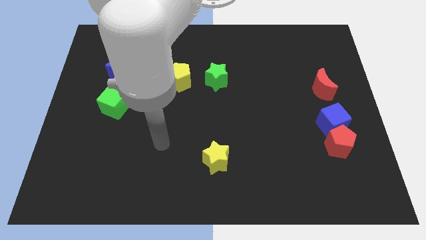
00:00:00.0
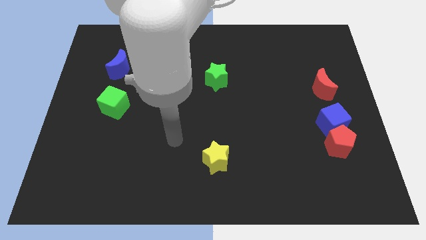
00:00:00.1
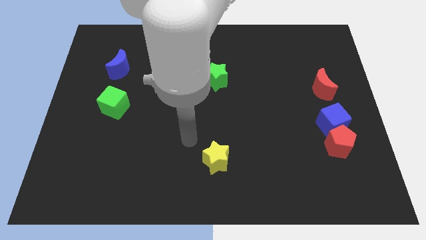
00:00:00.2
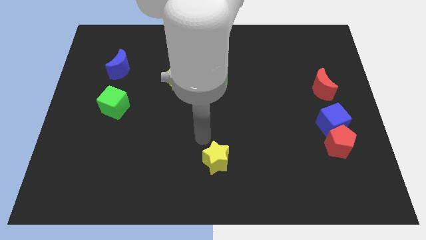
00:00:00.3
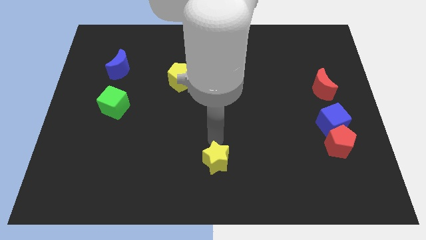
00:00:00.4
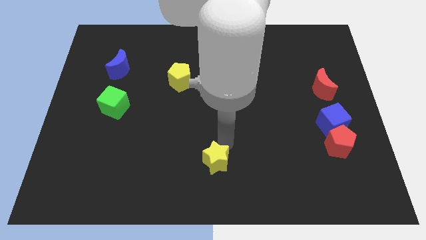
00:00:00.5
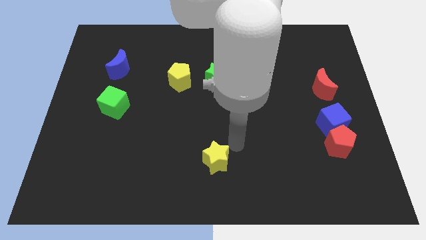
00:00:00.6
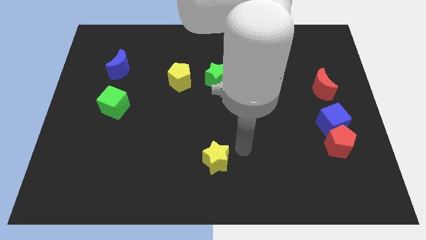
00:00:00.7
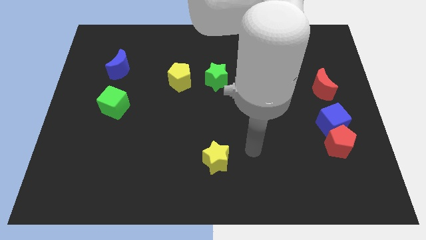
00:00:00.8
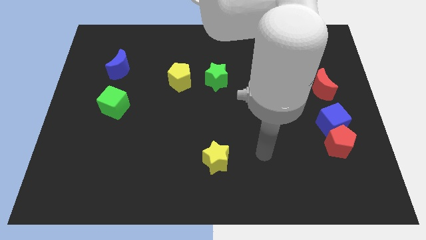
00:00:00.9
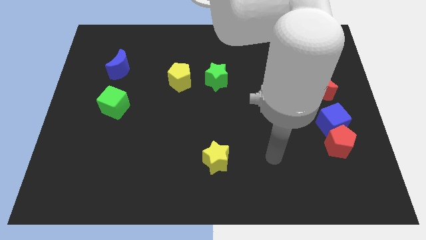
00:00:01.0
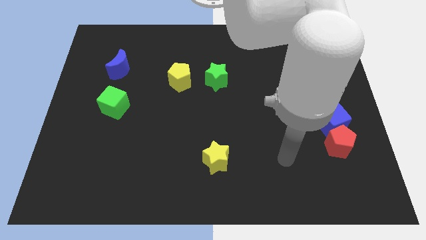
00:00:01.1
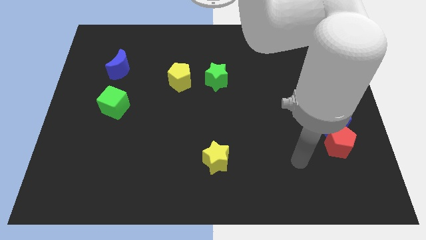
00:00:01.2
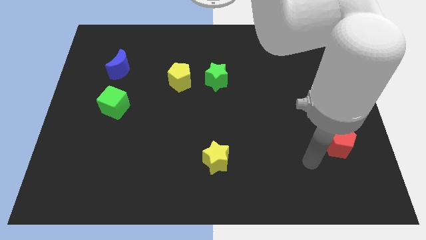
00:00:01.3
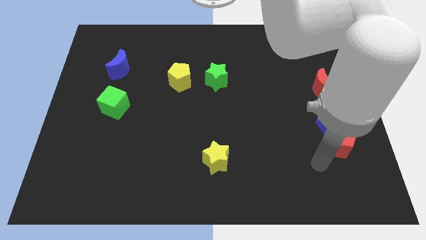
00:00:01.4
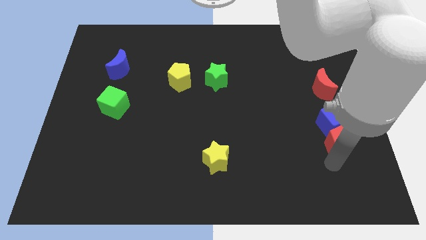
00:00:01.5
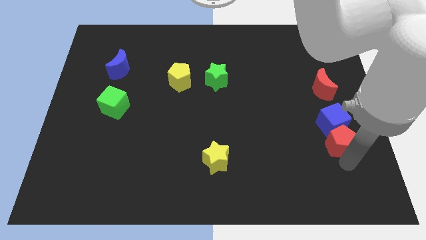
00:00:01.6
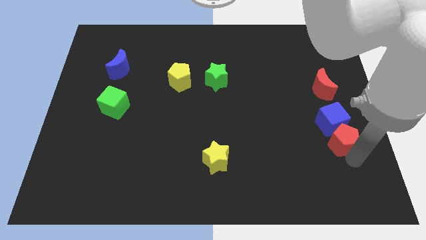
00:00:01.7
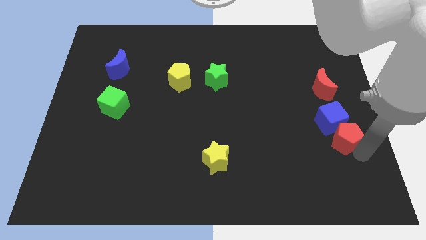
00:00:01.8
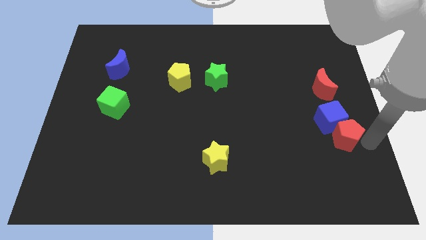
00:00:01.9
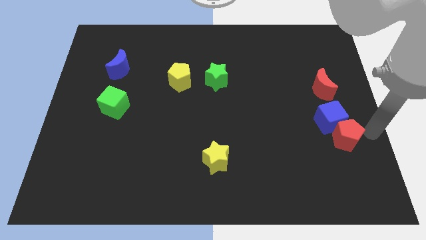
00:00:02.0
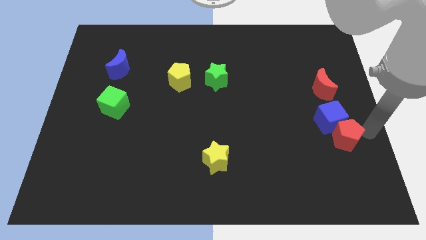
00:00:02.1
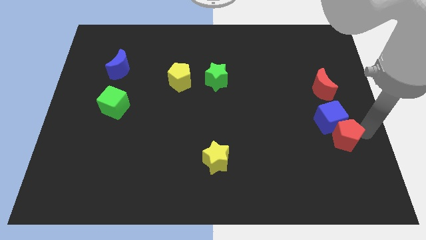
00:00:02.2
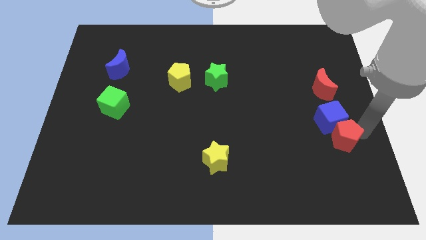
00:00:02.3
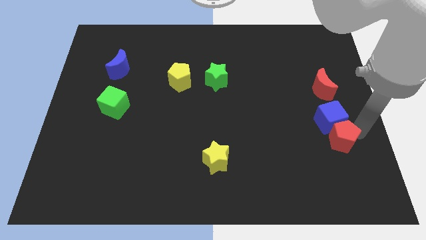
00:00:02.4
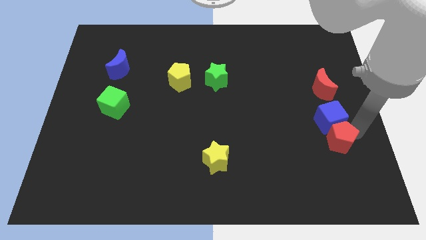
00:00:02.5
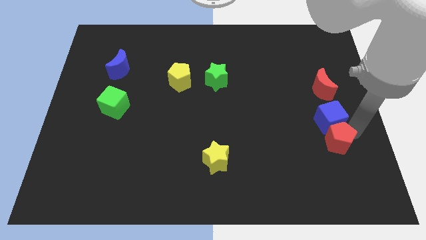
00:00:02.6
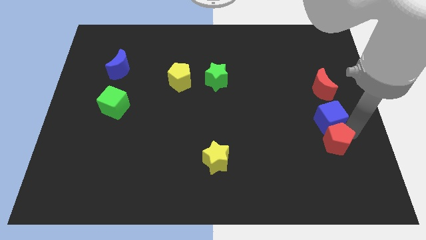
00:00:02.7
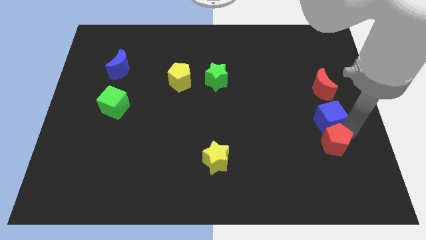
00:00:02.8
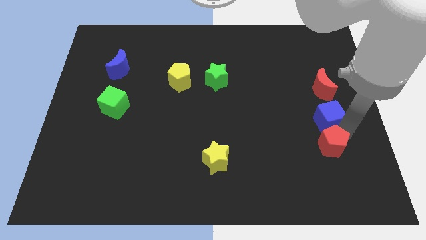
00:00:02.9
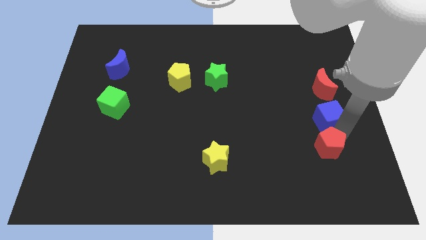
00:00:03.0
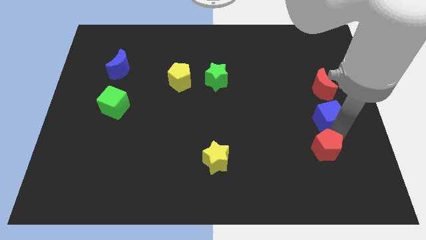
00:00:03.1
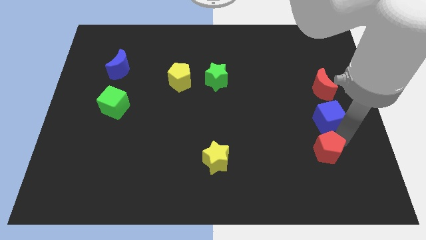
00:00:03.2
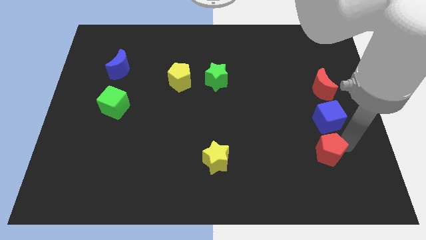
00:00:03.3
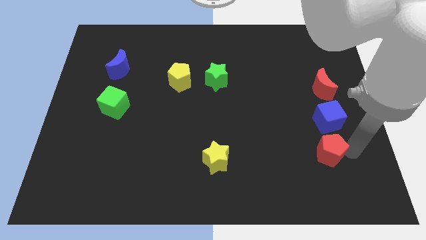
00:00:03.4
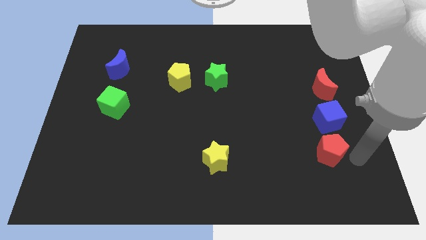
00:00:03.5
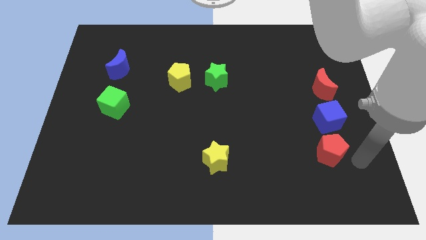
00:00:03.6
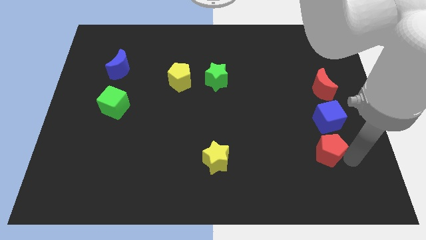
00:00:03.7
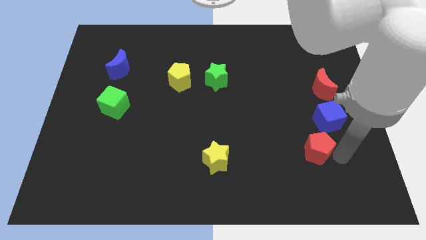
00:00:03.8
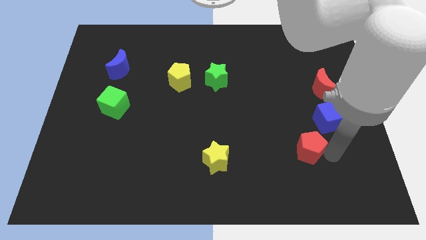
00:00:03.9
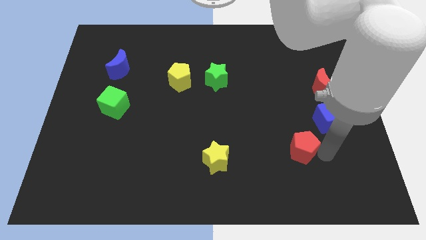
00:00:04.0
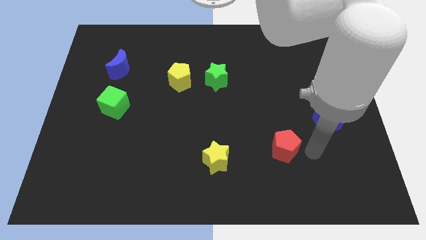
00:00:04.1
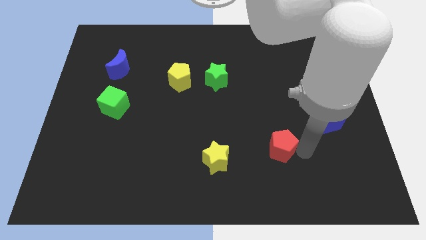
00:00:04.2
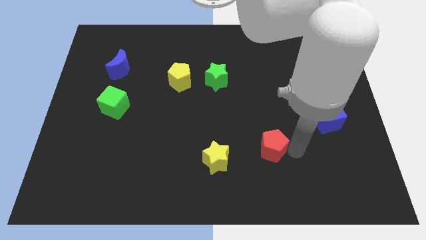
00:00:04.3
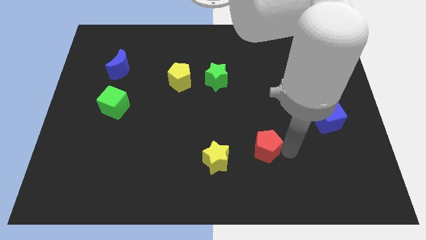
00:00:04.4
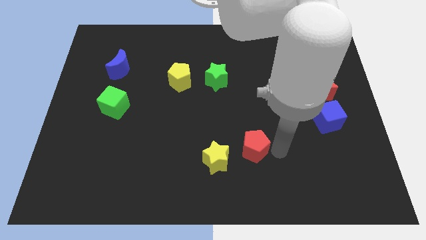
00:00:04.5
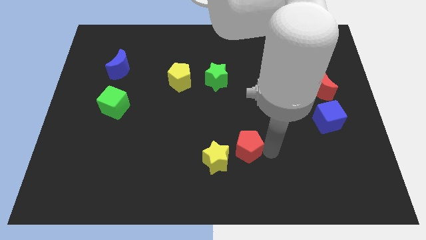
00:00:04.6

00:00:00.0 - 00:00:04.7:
move the red pentagon left

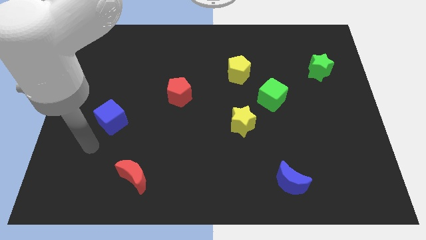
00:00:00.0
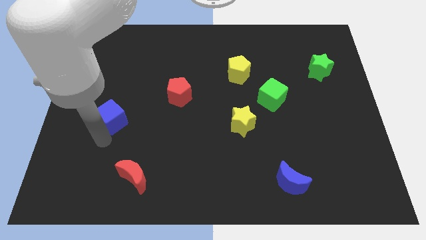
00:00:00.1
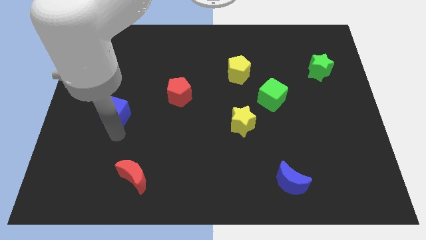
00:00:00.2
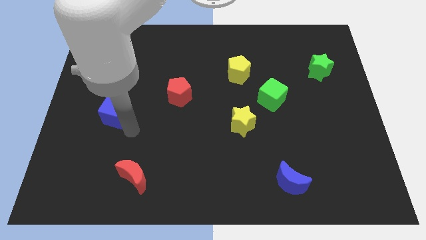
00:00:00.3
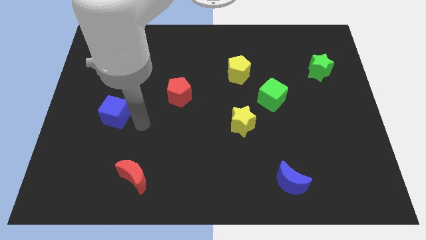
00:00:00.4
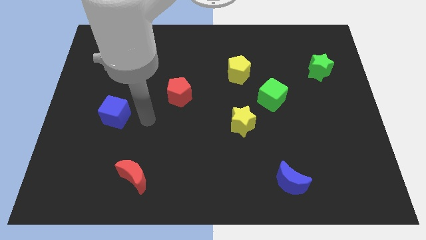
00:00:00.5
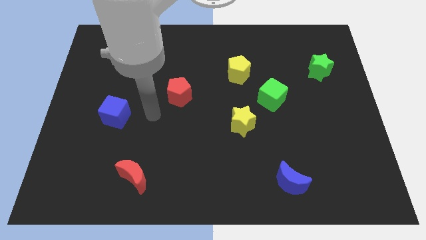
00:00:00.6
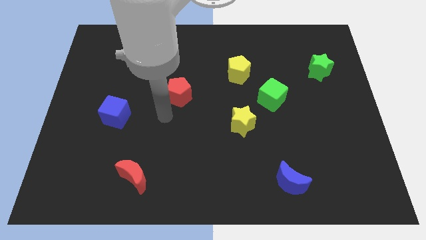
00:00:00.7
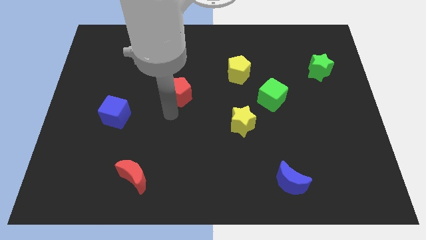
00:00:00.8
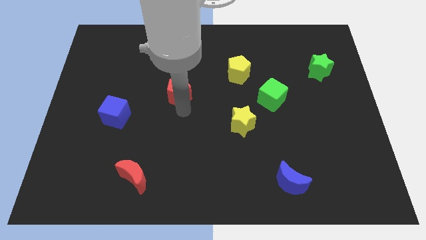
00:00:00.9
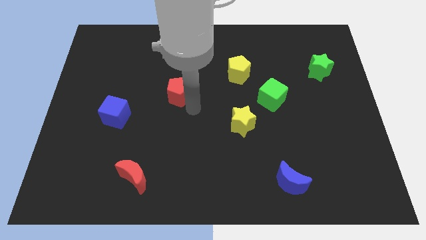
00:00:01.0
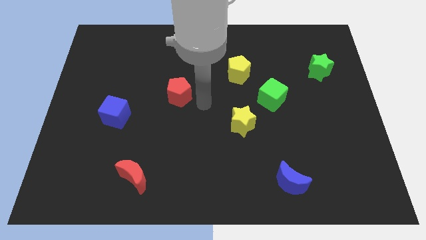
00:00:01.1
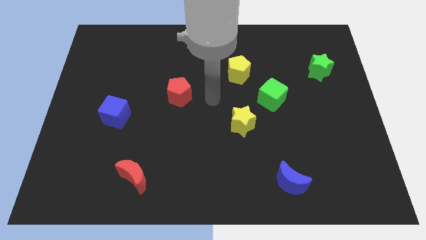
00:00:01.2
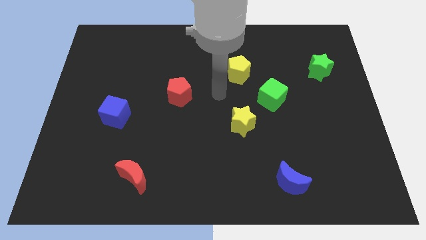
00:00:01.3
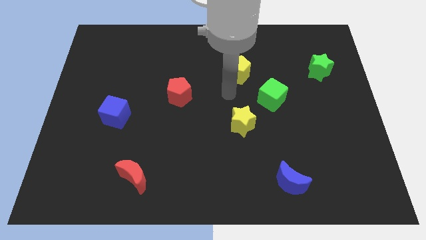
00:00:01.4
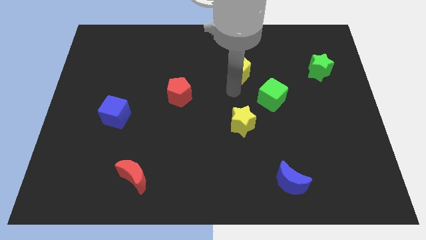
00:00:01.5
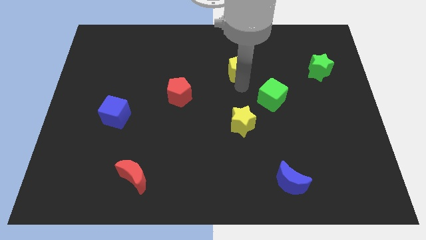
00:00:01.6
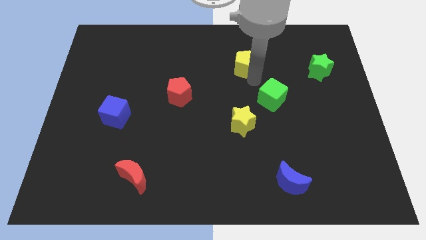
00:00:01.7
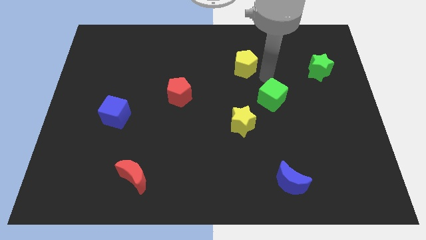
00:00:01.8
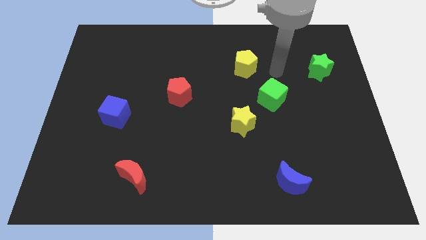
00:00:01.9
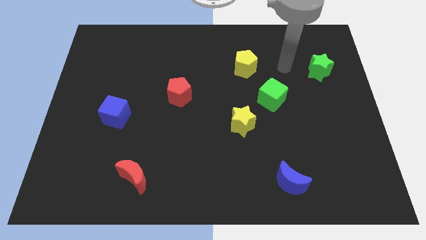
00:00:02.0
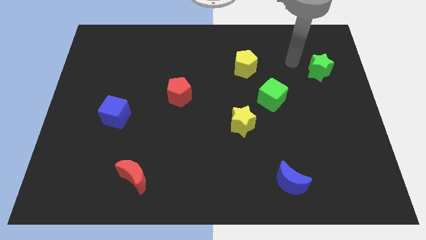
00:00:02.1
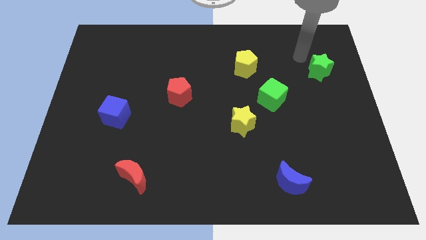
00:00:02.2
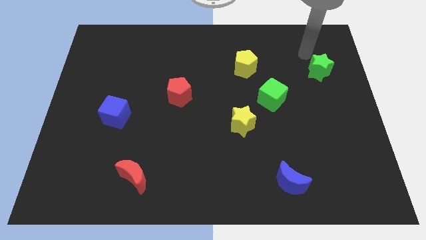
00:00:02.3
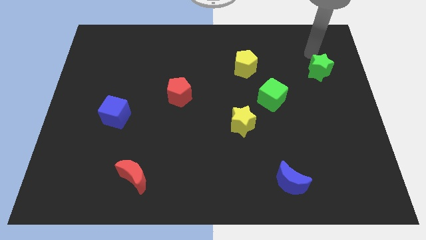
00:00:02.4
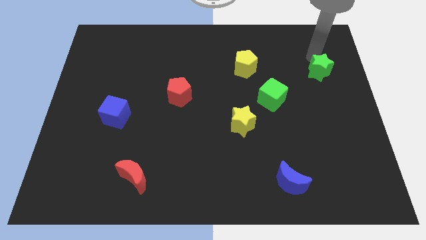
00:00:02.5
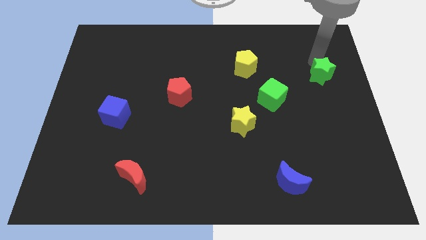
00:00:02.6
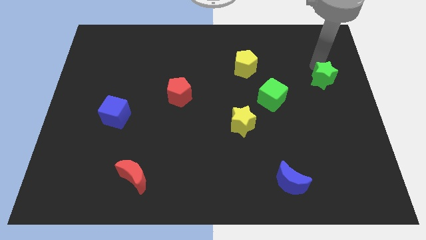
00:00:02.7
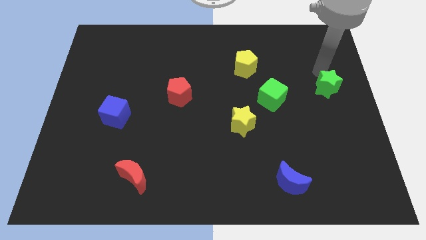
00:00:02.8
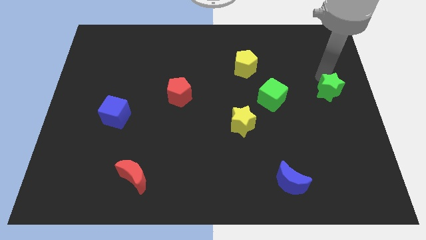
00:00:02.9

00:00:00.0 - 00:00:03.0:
push the green star downwards a little

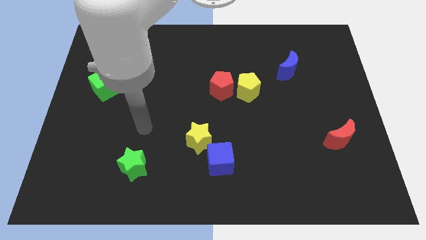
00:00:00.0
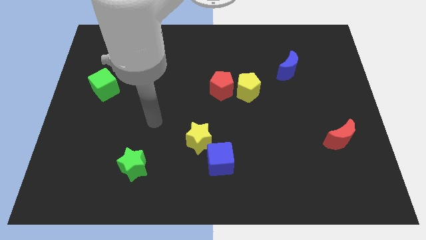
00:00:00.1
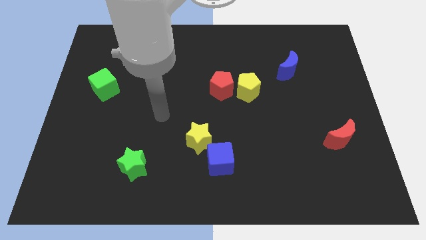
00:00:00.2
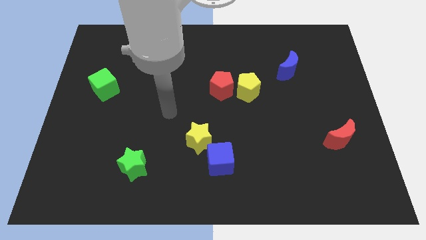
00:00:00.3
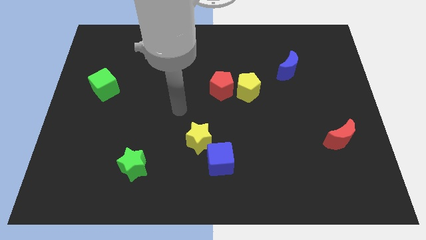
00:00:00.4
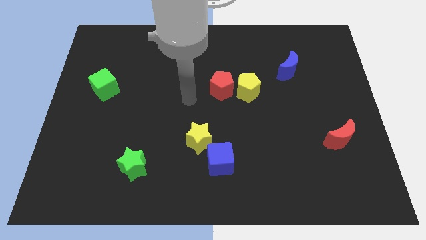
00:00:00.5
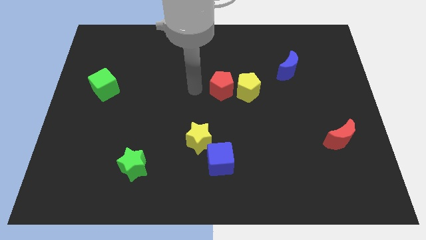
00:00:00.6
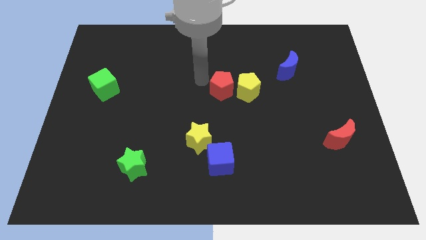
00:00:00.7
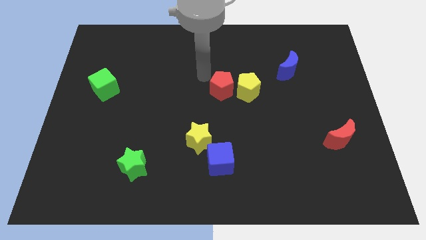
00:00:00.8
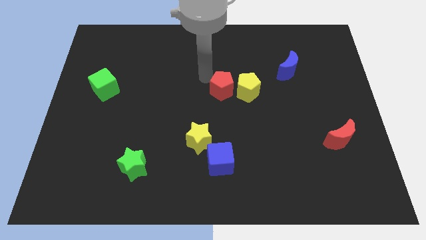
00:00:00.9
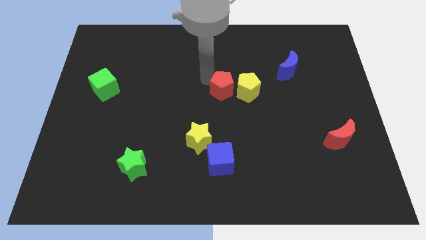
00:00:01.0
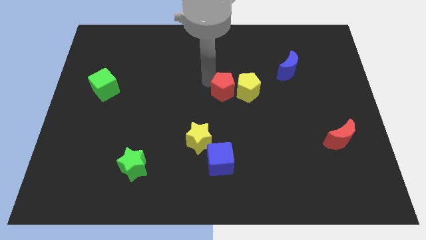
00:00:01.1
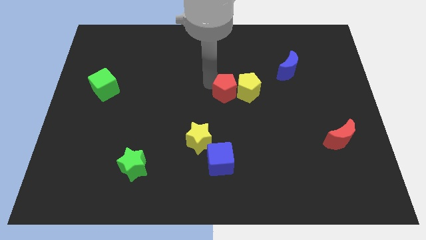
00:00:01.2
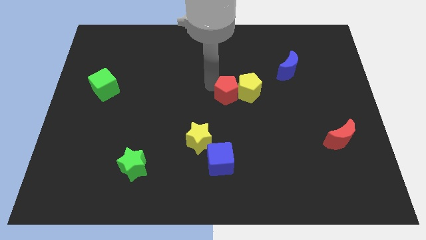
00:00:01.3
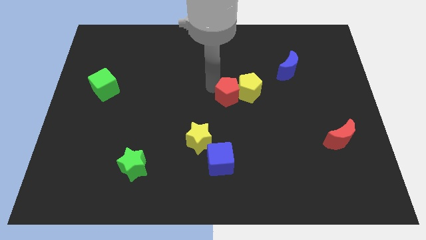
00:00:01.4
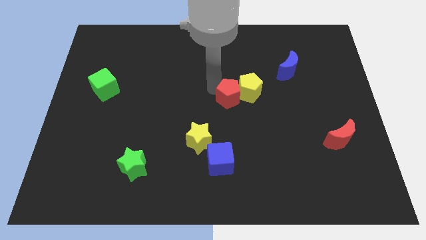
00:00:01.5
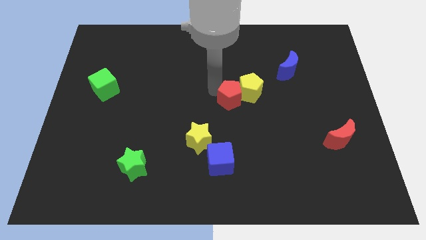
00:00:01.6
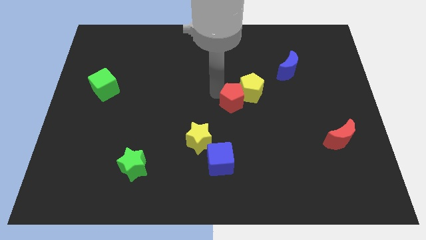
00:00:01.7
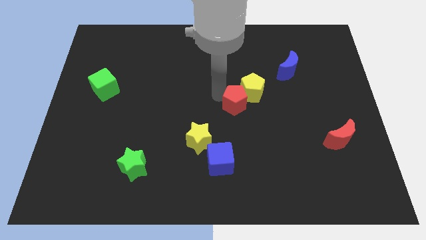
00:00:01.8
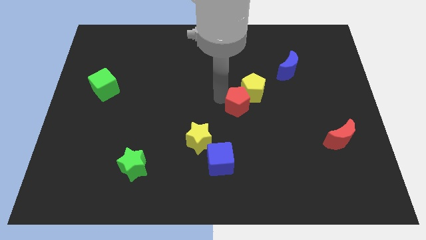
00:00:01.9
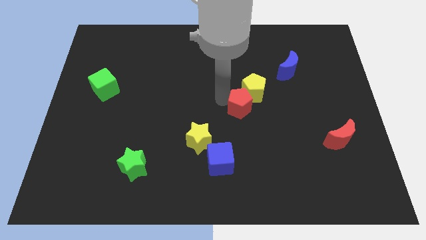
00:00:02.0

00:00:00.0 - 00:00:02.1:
push the red pentagon a bit downwards and then right
